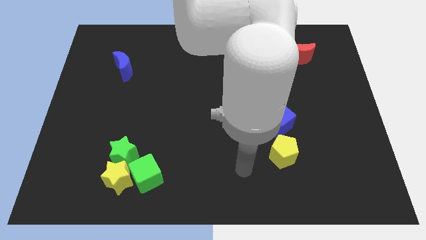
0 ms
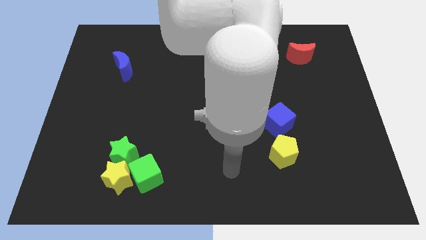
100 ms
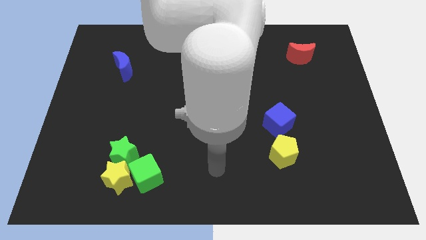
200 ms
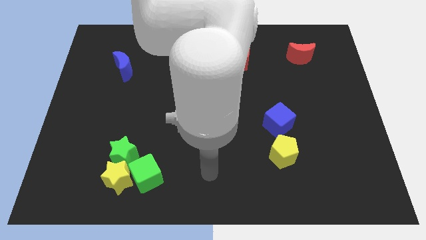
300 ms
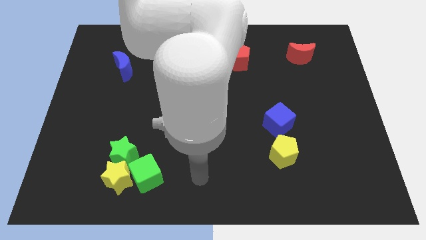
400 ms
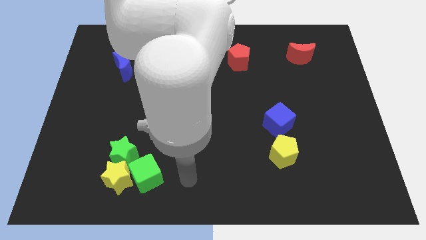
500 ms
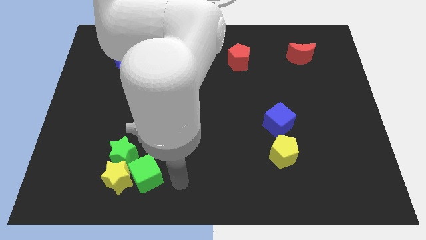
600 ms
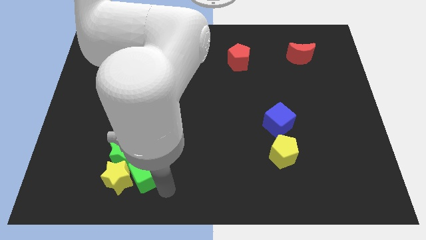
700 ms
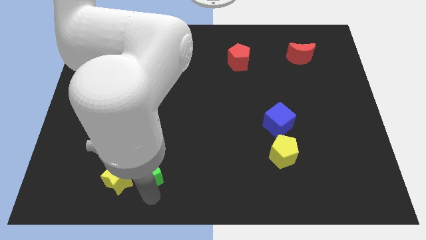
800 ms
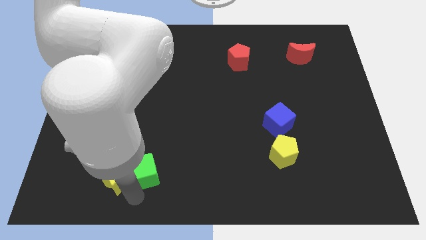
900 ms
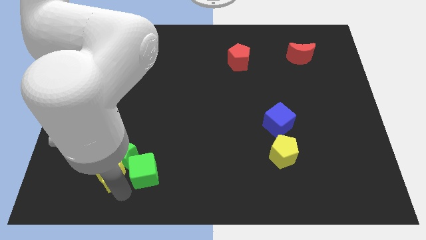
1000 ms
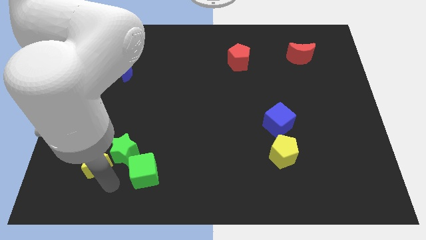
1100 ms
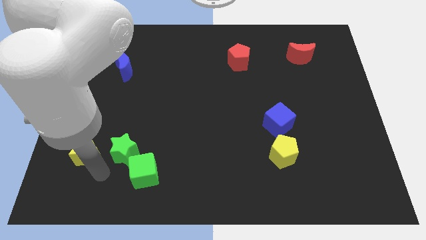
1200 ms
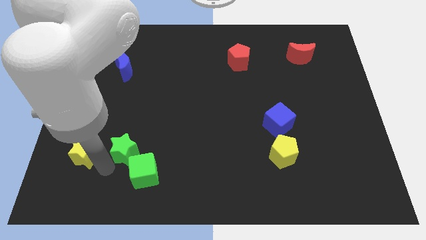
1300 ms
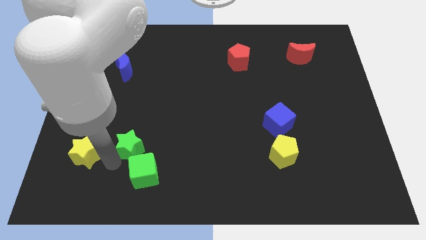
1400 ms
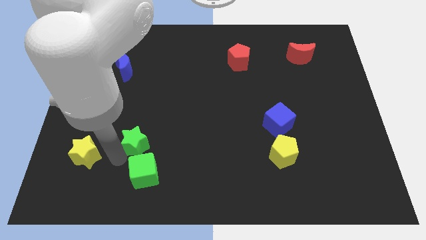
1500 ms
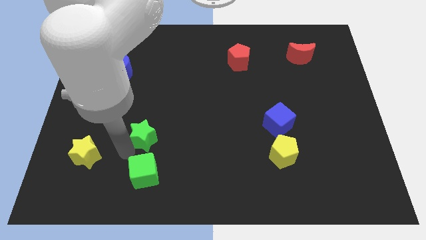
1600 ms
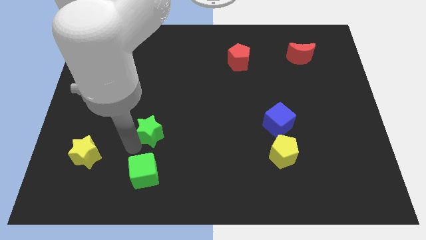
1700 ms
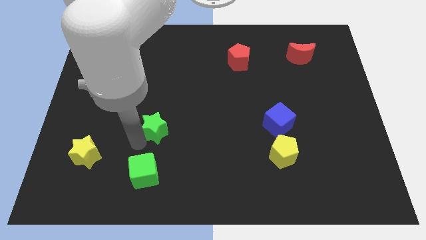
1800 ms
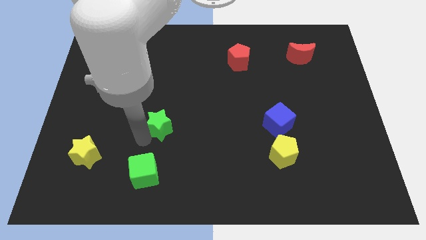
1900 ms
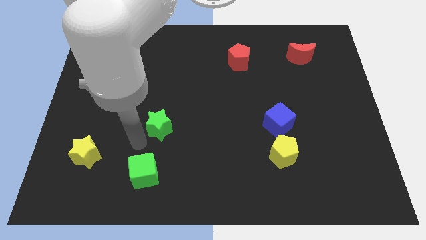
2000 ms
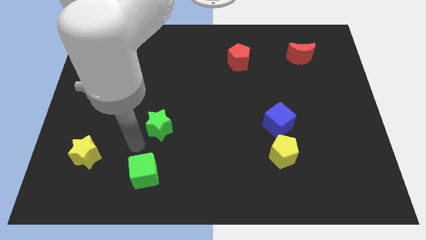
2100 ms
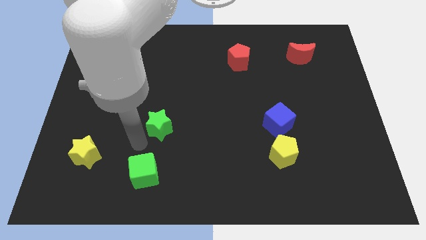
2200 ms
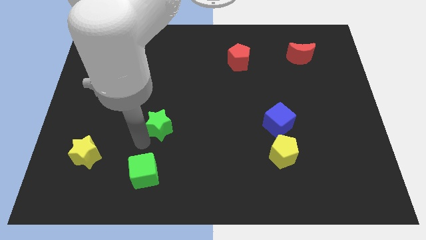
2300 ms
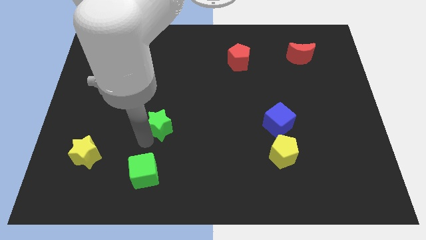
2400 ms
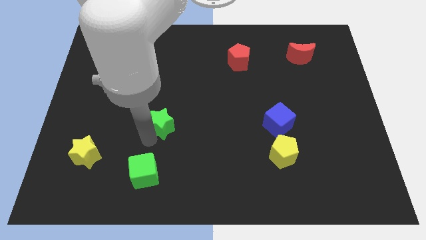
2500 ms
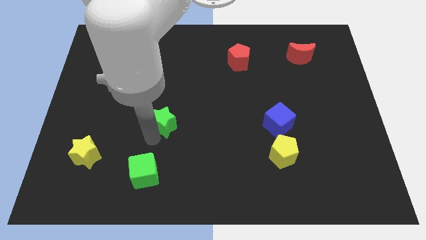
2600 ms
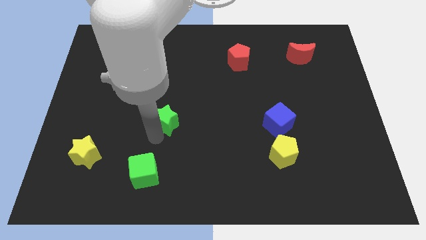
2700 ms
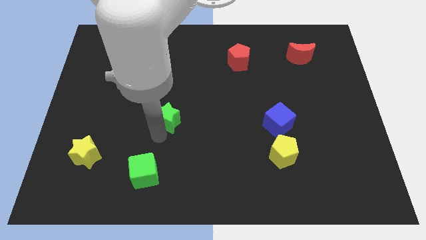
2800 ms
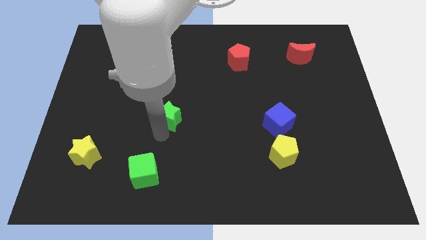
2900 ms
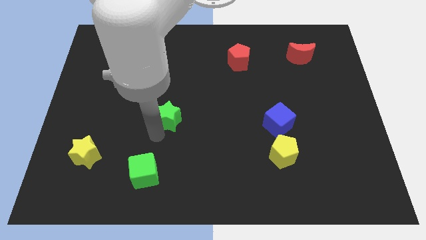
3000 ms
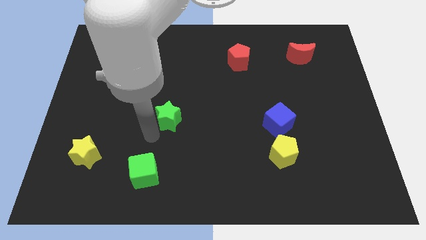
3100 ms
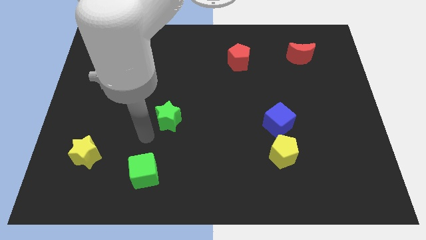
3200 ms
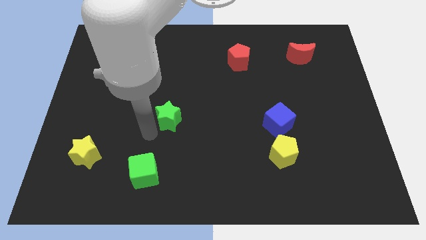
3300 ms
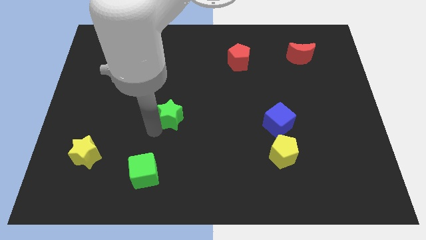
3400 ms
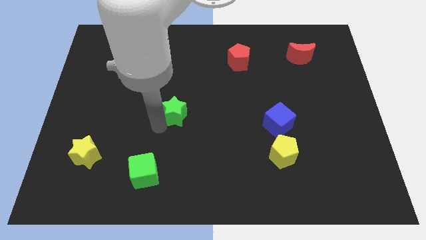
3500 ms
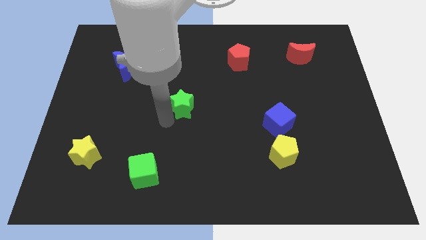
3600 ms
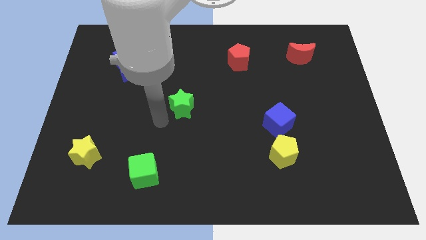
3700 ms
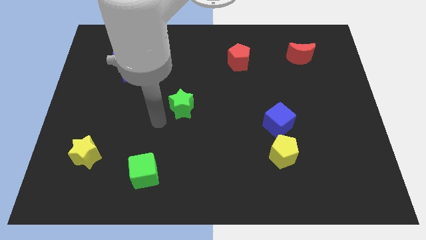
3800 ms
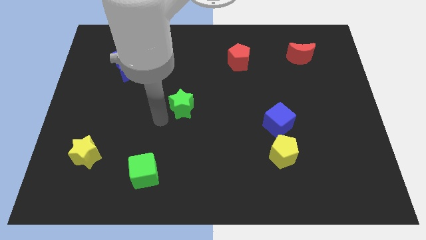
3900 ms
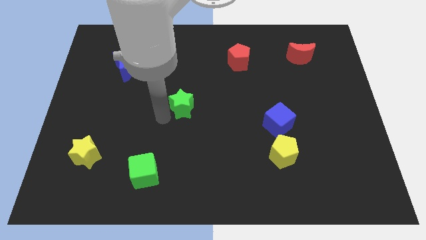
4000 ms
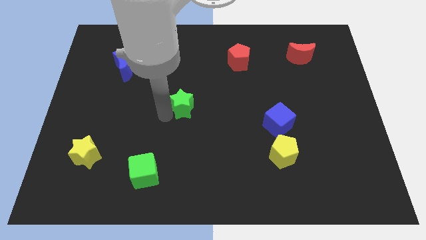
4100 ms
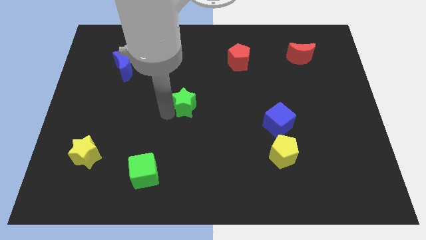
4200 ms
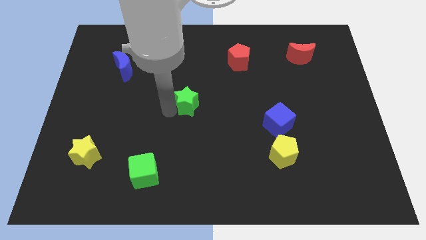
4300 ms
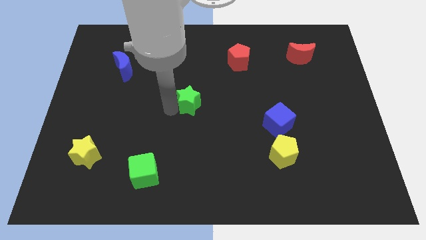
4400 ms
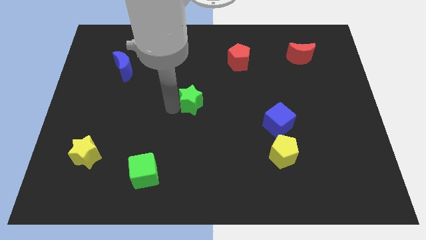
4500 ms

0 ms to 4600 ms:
move the green star diagonally up and to the right

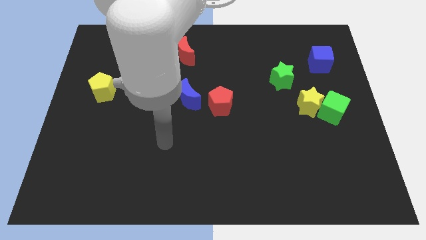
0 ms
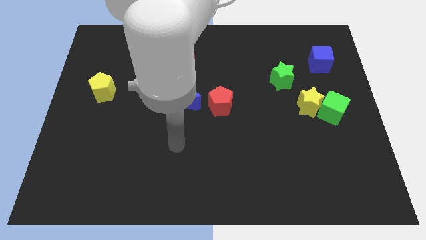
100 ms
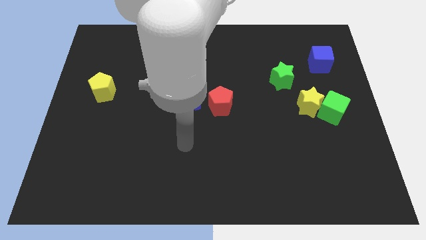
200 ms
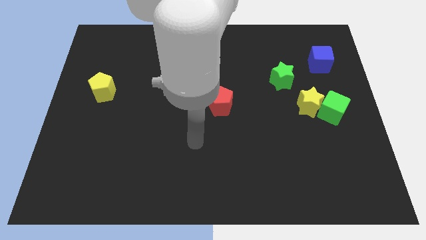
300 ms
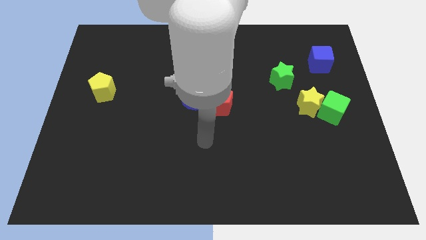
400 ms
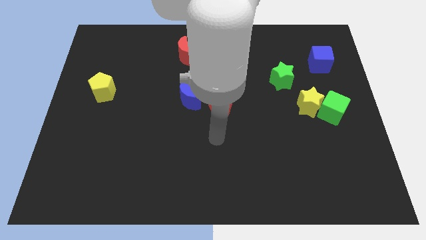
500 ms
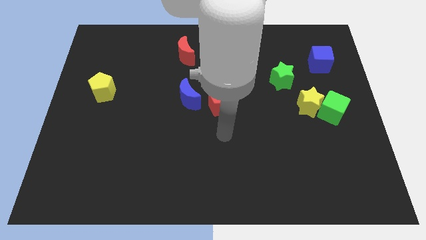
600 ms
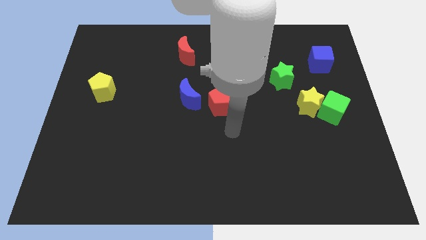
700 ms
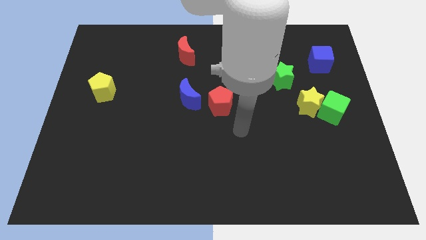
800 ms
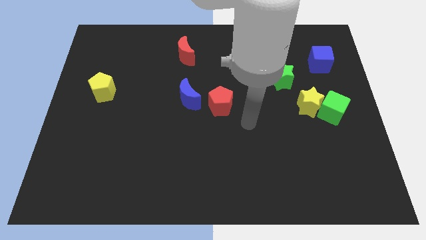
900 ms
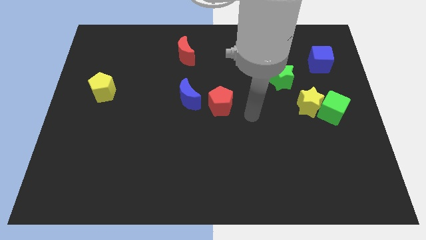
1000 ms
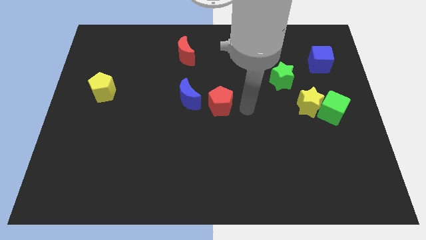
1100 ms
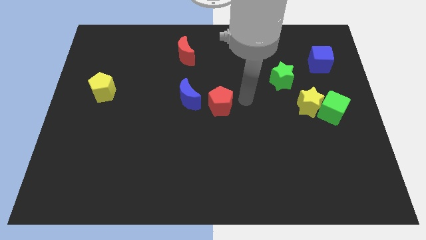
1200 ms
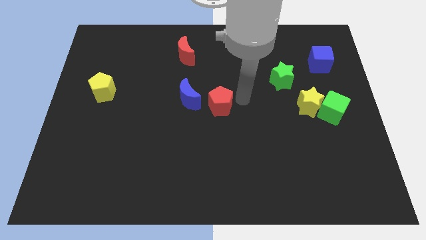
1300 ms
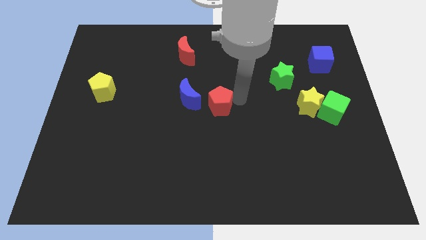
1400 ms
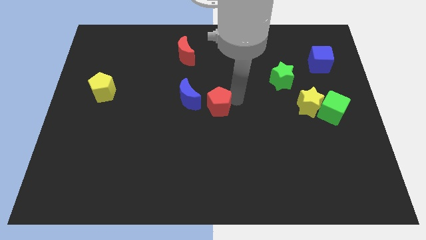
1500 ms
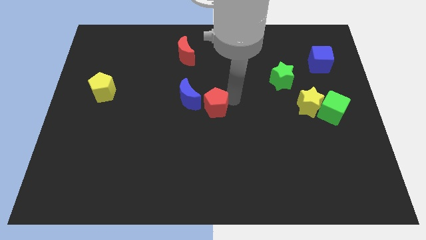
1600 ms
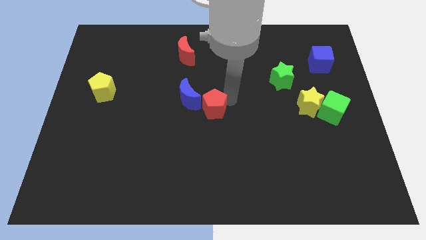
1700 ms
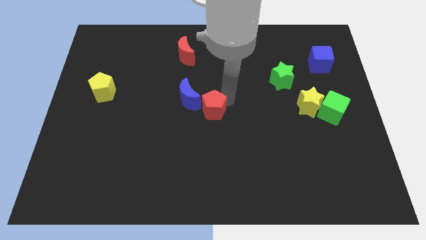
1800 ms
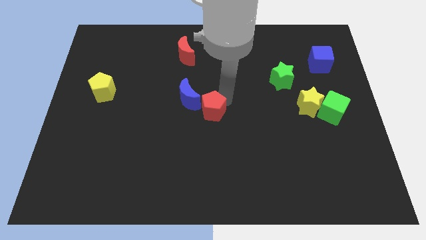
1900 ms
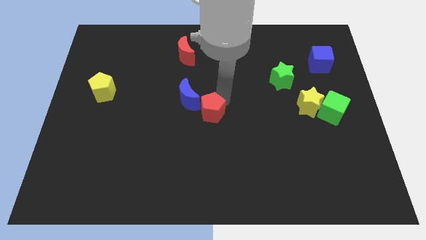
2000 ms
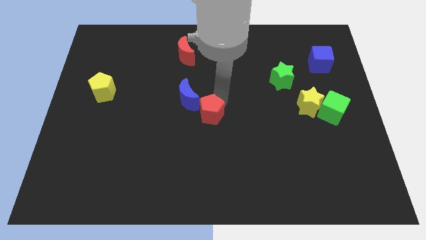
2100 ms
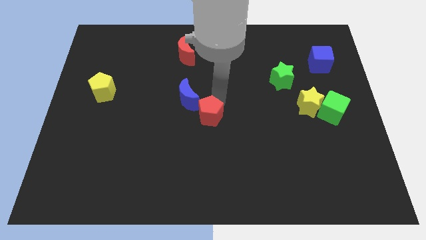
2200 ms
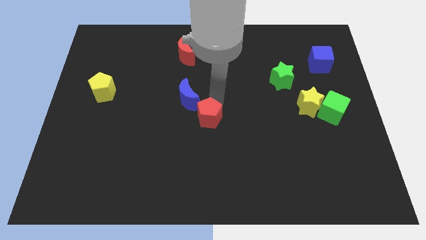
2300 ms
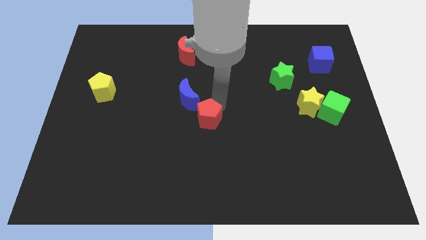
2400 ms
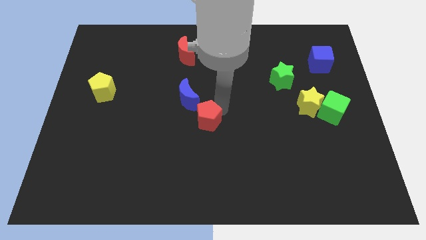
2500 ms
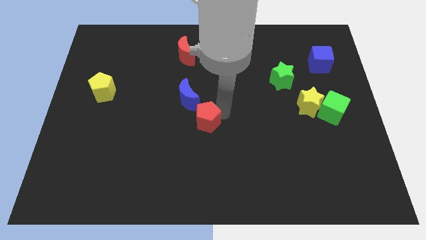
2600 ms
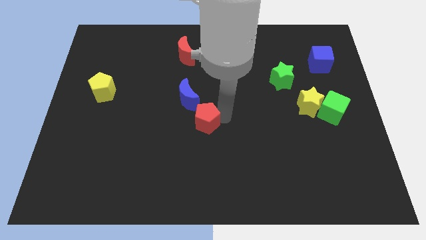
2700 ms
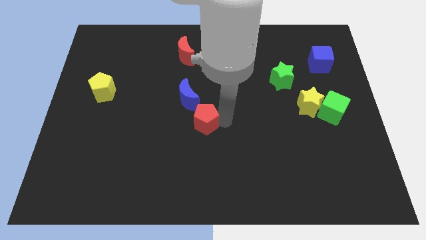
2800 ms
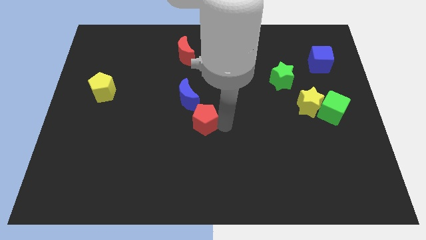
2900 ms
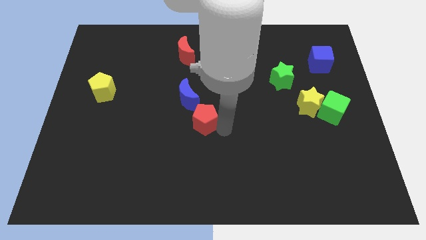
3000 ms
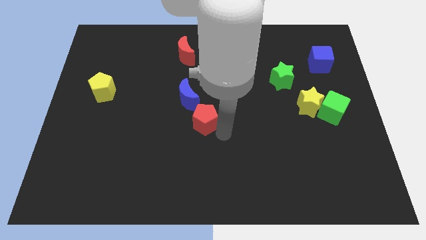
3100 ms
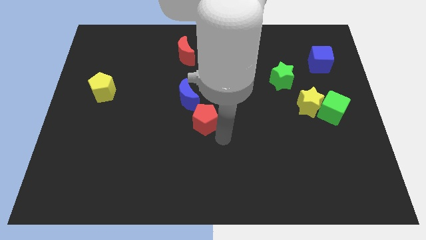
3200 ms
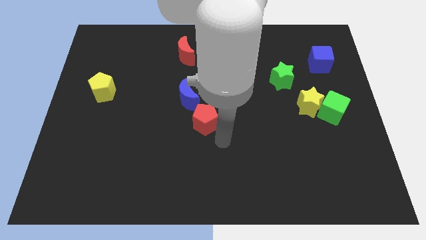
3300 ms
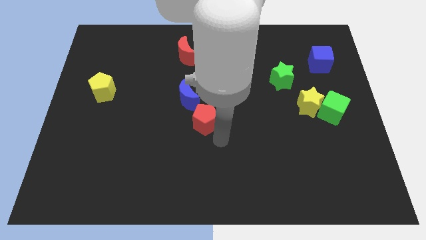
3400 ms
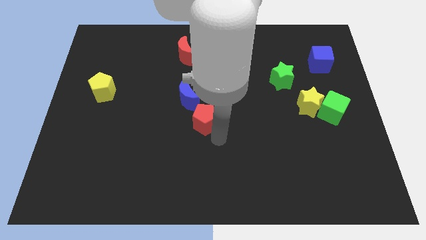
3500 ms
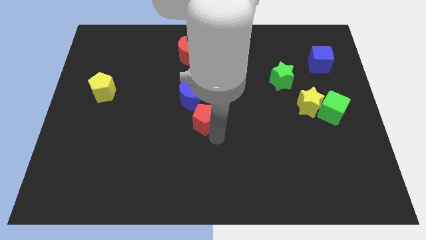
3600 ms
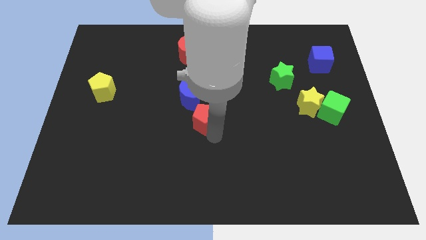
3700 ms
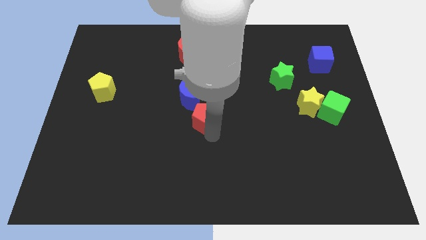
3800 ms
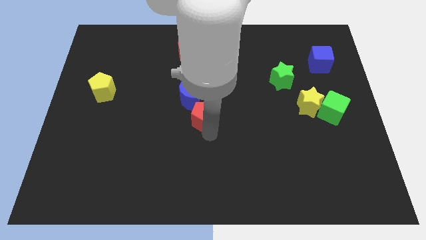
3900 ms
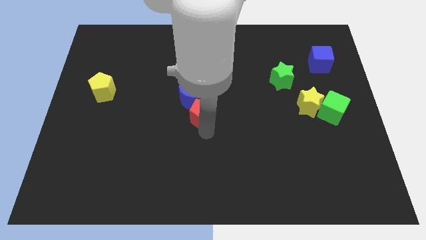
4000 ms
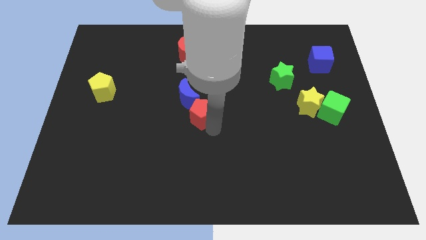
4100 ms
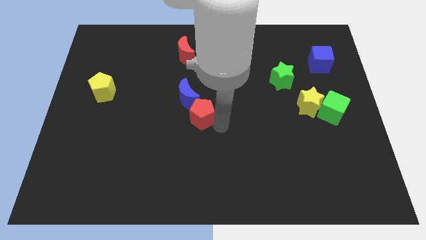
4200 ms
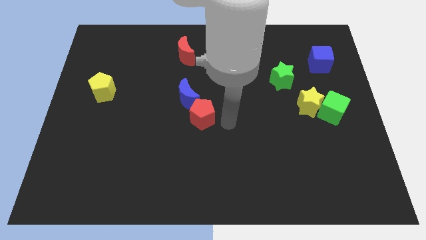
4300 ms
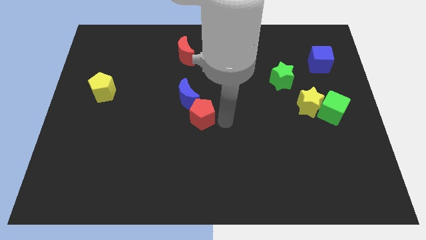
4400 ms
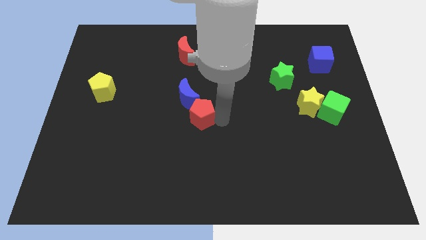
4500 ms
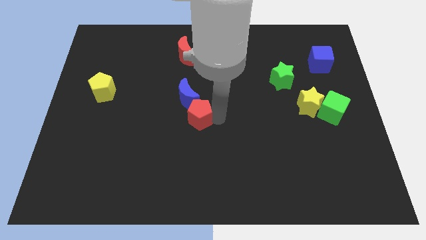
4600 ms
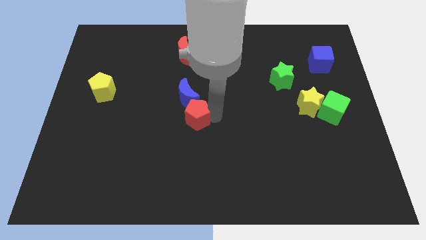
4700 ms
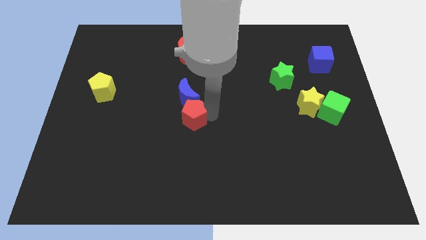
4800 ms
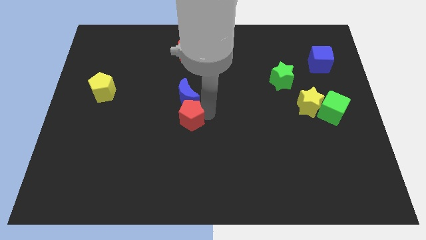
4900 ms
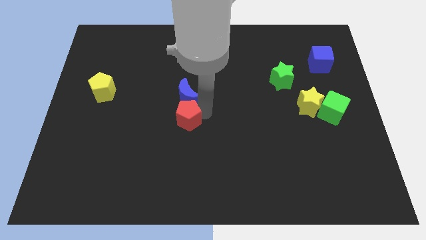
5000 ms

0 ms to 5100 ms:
move the red pentagon left slightly
